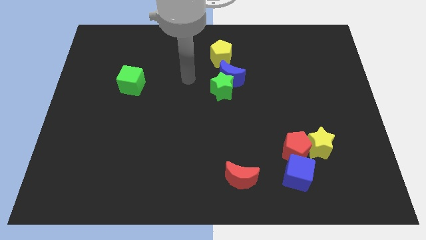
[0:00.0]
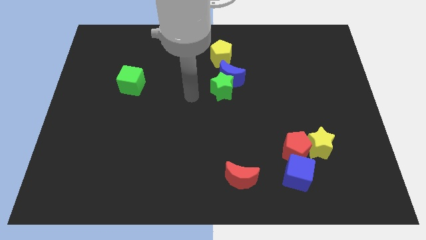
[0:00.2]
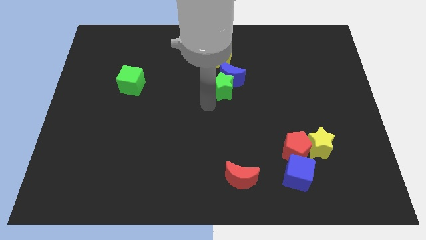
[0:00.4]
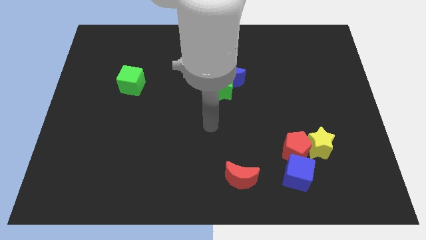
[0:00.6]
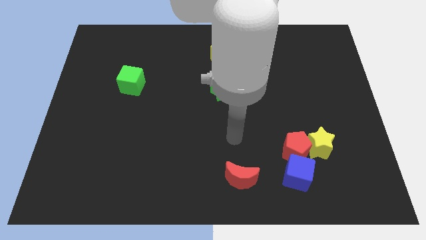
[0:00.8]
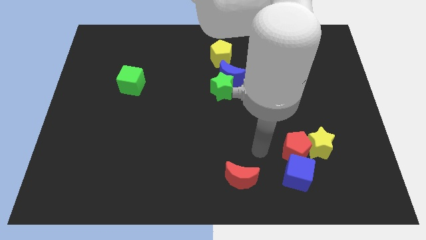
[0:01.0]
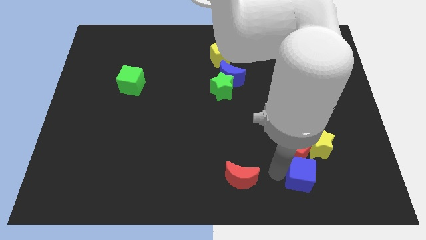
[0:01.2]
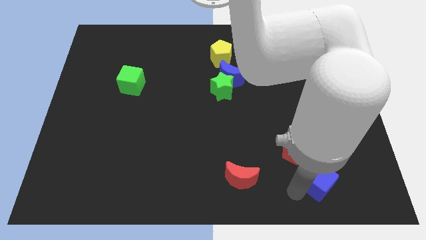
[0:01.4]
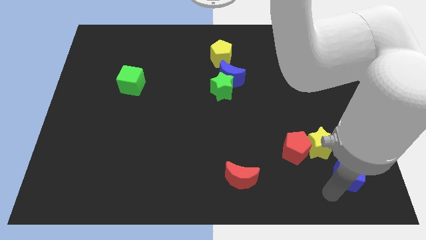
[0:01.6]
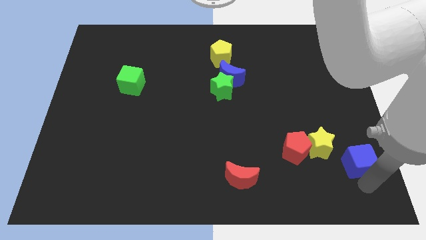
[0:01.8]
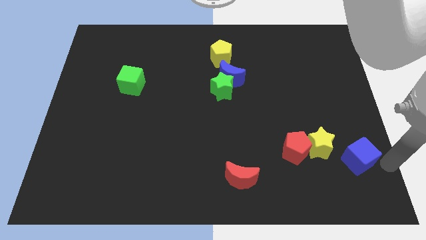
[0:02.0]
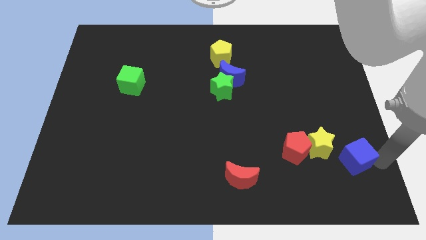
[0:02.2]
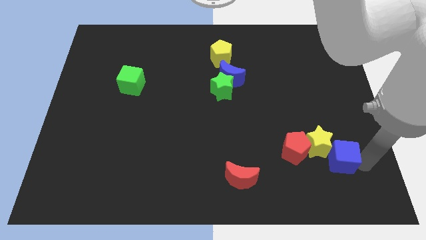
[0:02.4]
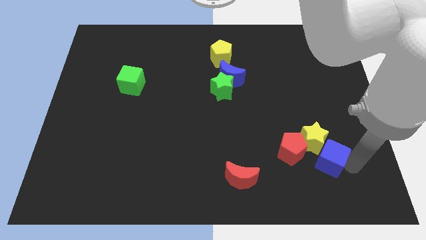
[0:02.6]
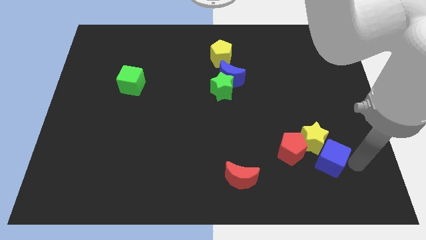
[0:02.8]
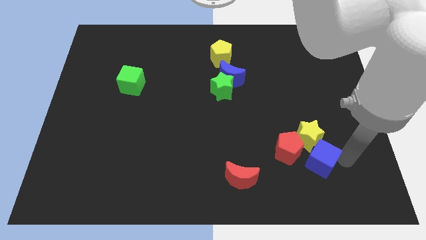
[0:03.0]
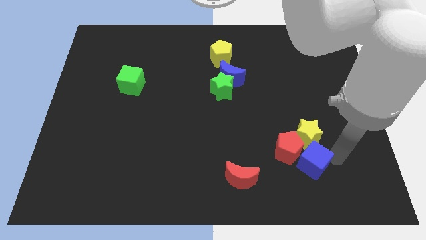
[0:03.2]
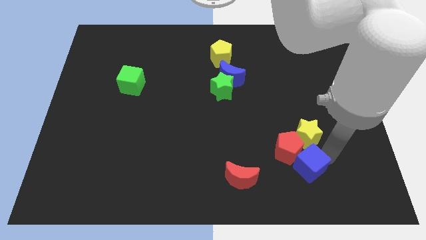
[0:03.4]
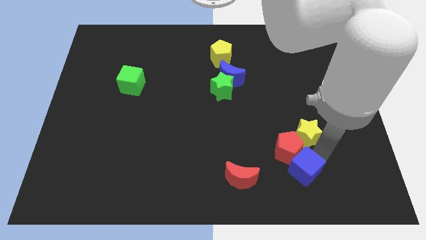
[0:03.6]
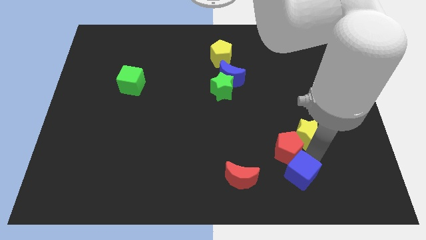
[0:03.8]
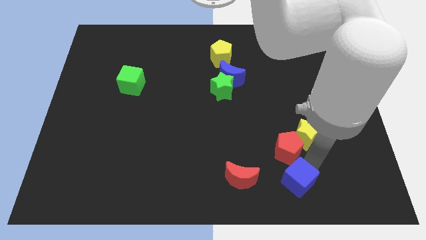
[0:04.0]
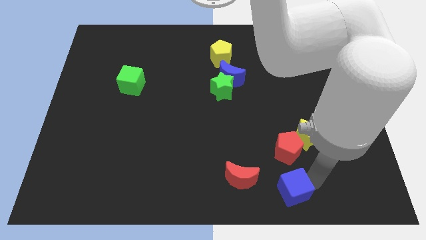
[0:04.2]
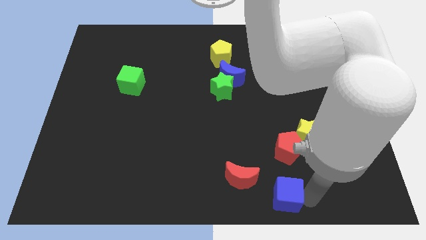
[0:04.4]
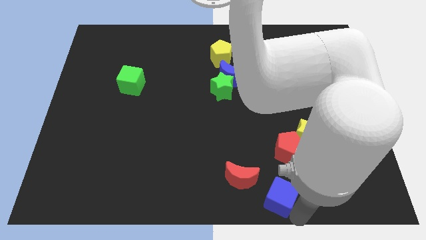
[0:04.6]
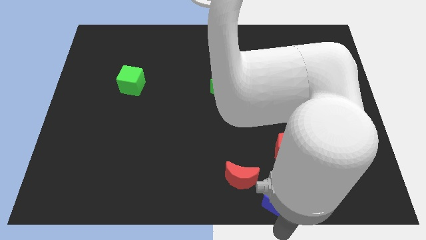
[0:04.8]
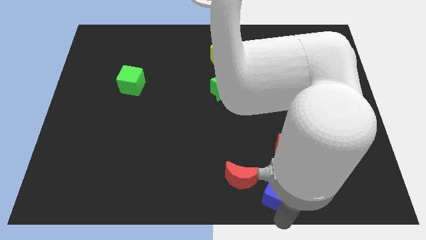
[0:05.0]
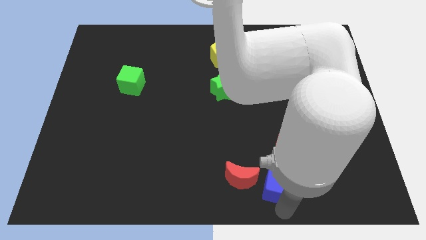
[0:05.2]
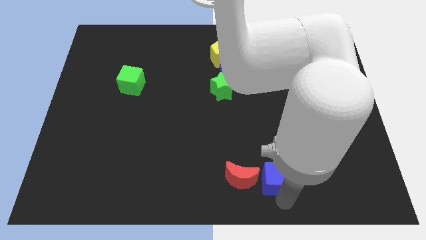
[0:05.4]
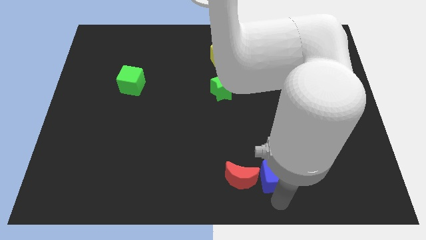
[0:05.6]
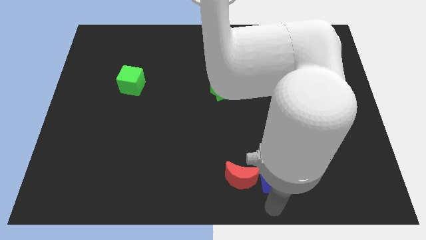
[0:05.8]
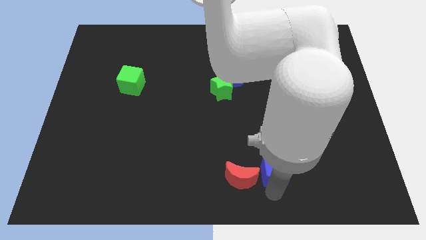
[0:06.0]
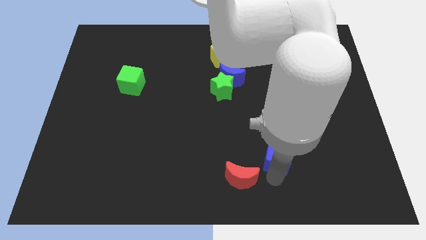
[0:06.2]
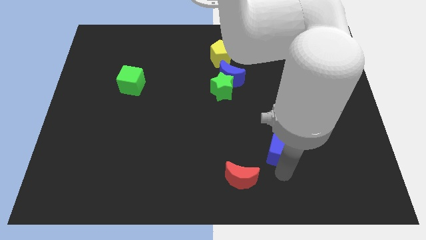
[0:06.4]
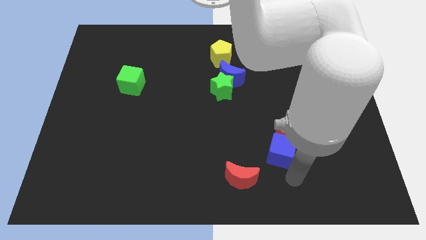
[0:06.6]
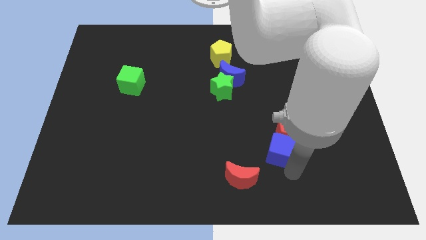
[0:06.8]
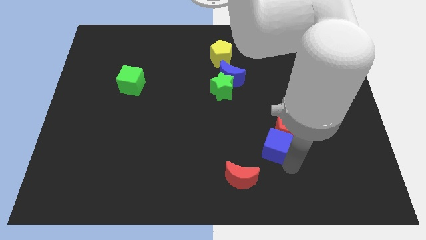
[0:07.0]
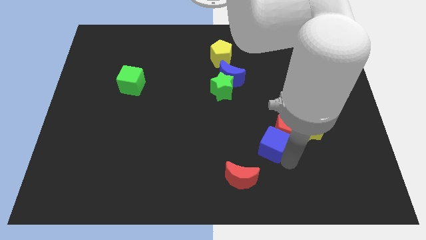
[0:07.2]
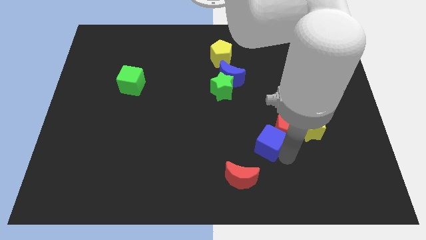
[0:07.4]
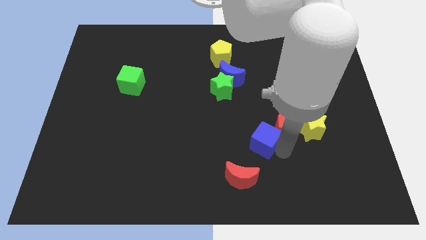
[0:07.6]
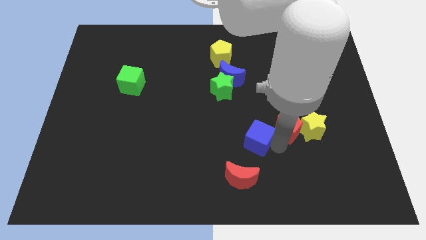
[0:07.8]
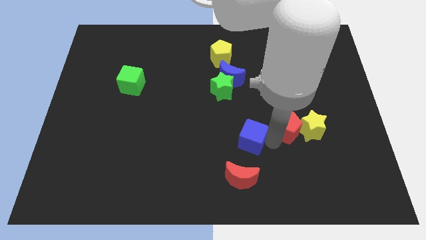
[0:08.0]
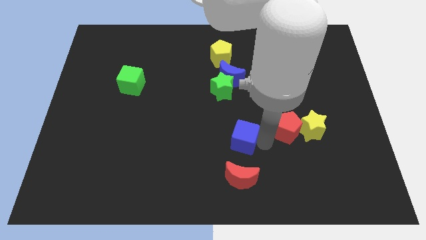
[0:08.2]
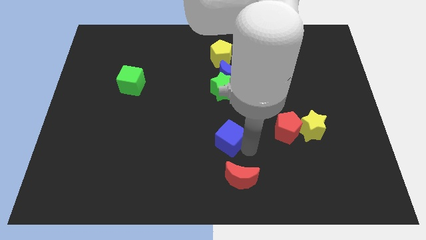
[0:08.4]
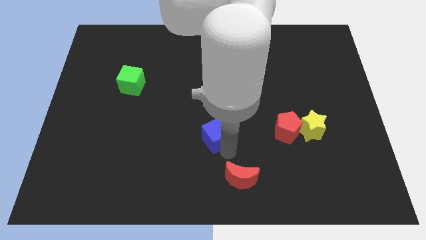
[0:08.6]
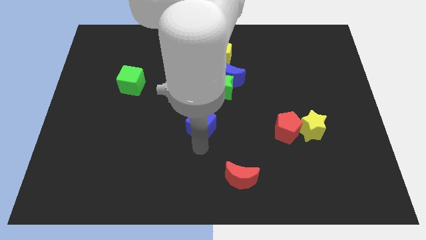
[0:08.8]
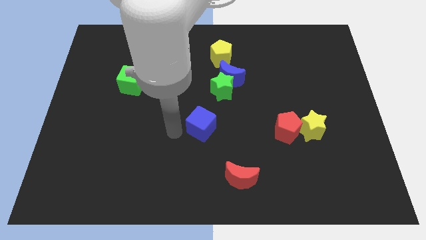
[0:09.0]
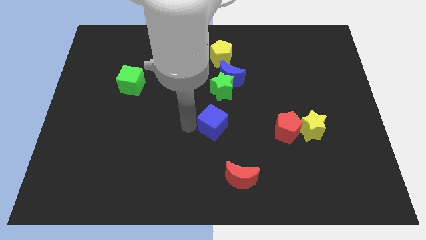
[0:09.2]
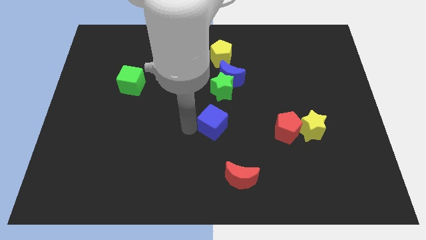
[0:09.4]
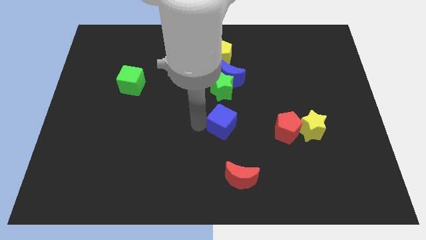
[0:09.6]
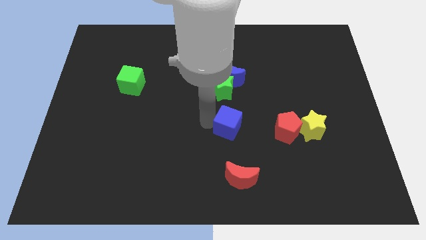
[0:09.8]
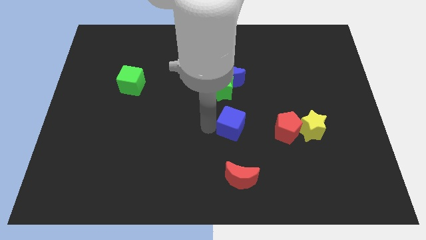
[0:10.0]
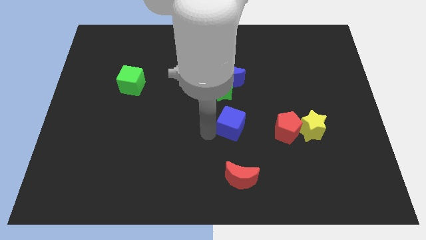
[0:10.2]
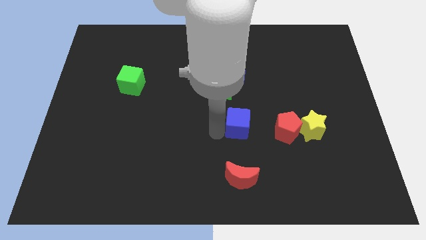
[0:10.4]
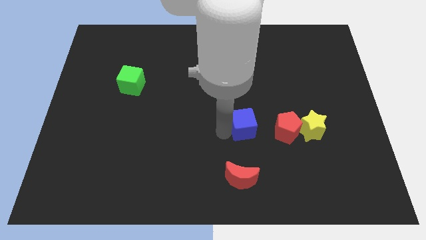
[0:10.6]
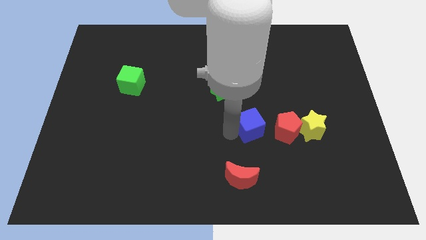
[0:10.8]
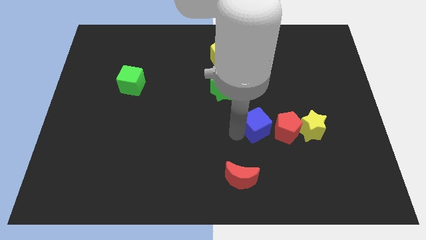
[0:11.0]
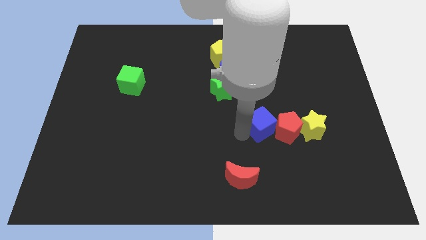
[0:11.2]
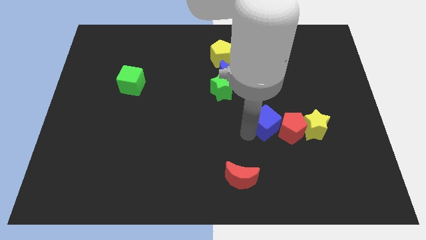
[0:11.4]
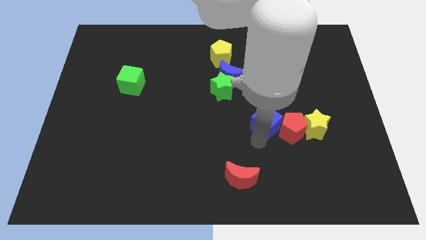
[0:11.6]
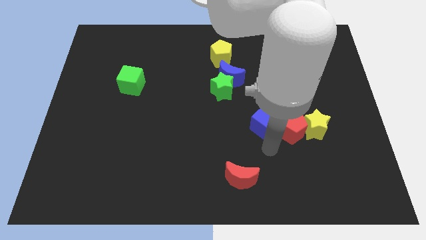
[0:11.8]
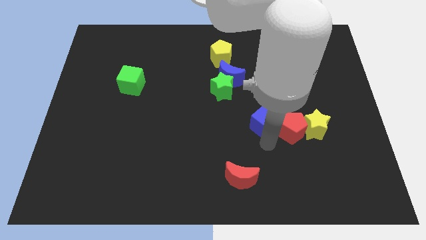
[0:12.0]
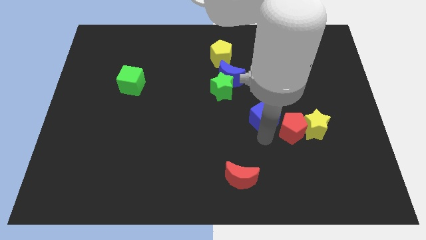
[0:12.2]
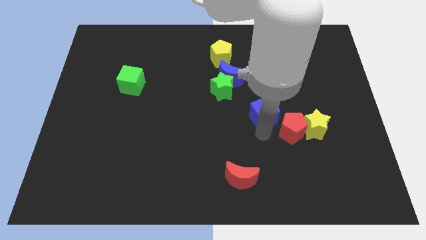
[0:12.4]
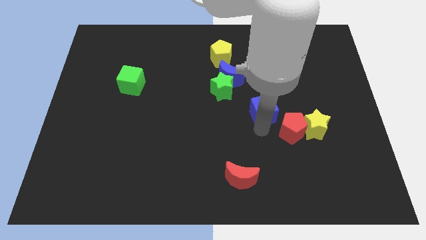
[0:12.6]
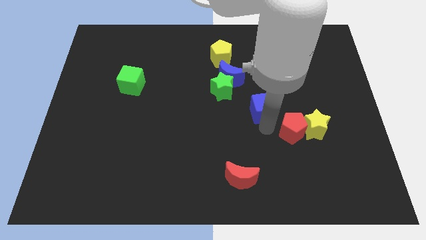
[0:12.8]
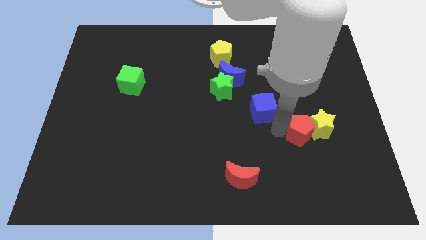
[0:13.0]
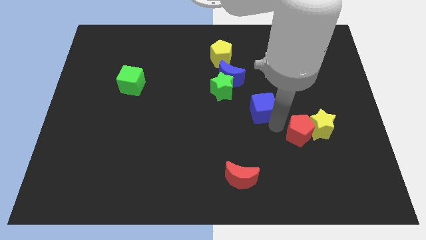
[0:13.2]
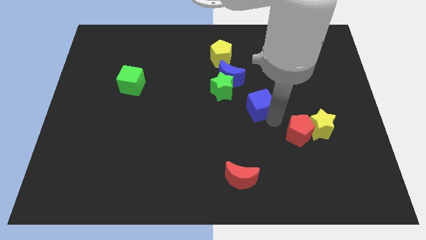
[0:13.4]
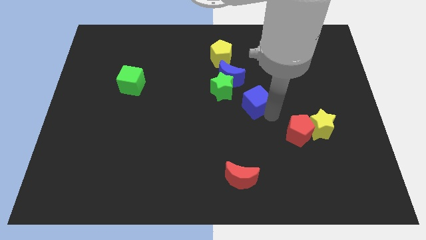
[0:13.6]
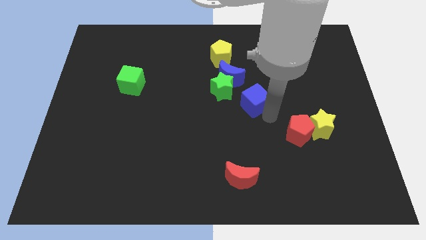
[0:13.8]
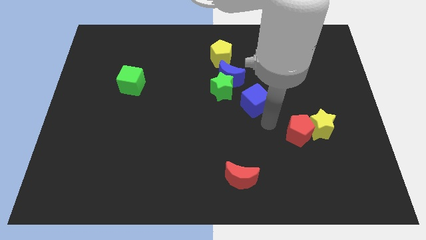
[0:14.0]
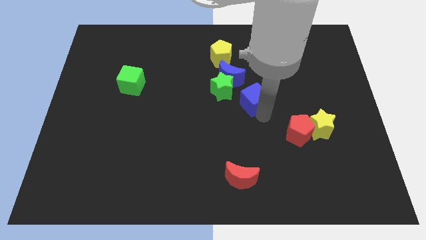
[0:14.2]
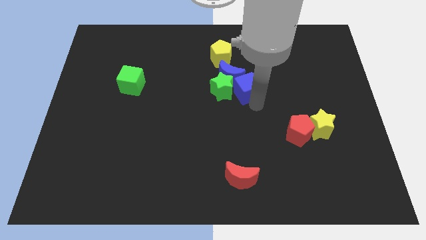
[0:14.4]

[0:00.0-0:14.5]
push the blue cube close to the blue moon
